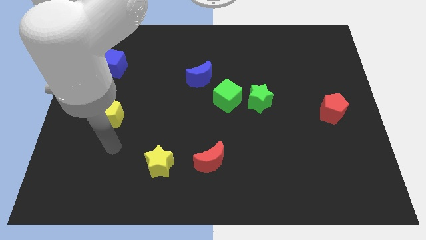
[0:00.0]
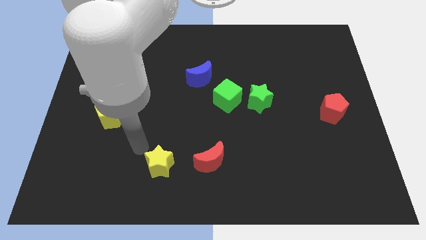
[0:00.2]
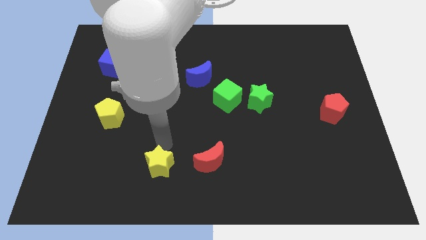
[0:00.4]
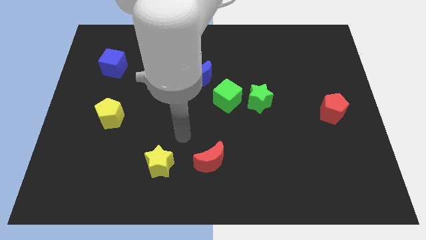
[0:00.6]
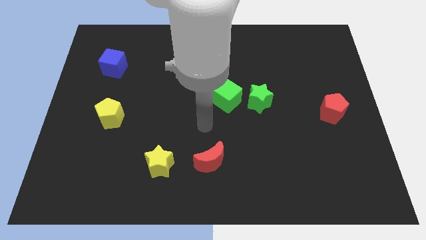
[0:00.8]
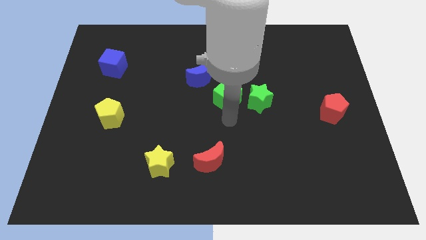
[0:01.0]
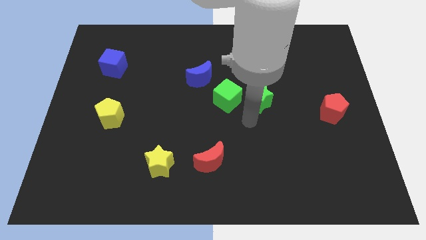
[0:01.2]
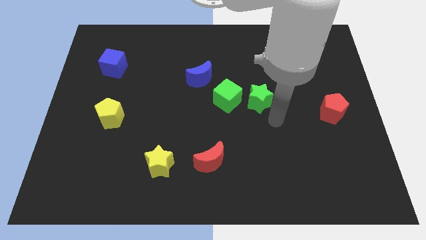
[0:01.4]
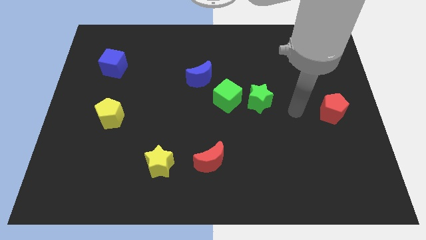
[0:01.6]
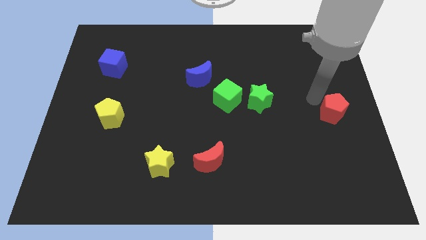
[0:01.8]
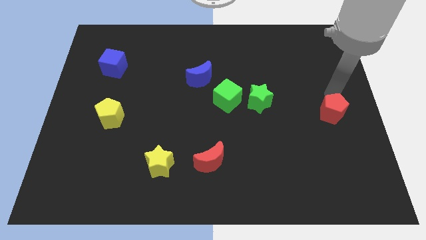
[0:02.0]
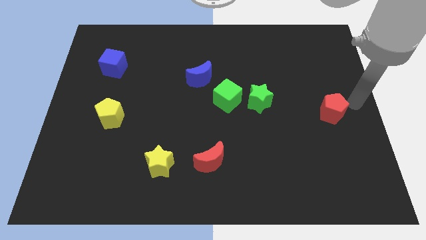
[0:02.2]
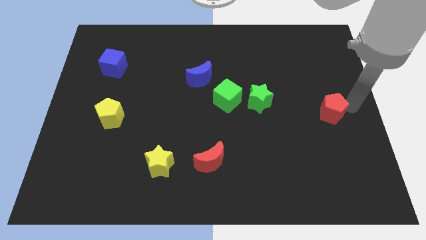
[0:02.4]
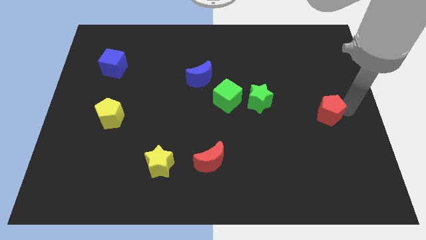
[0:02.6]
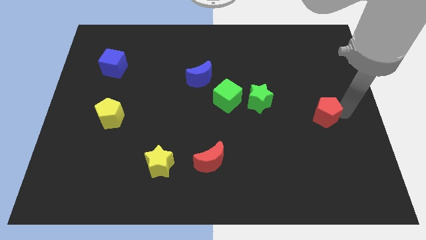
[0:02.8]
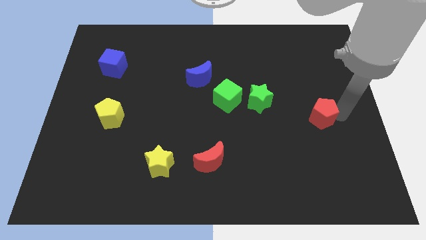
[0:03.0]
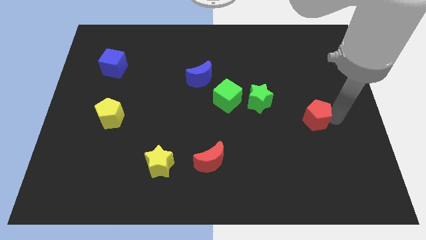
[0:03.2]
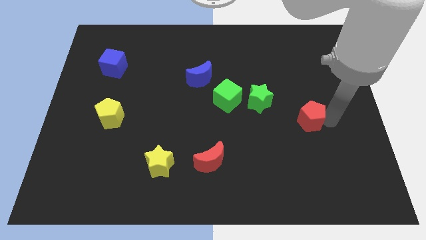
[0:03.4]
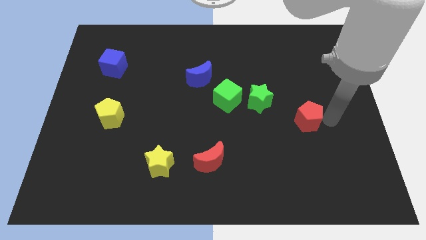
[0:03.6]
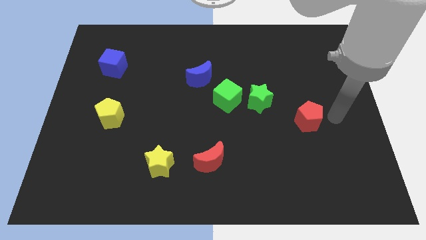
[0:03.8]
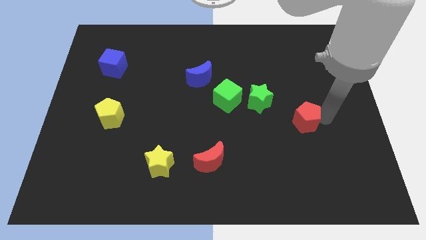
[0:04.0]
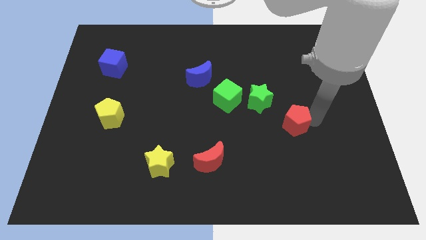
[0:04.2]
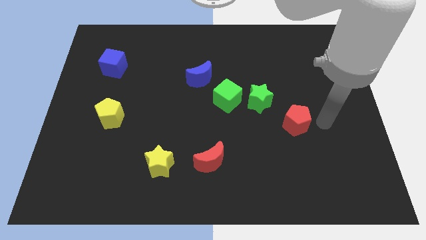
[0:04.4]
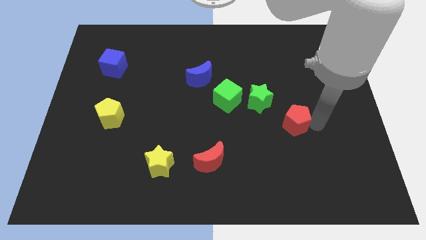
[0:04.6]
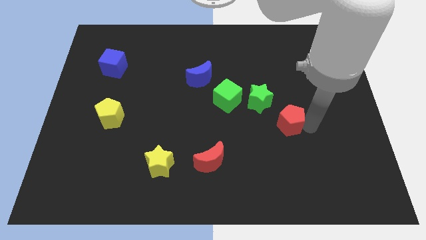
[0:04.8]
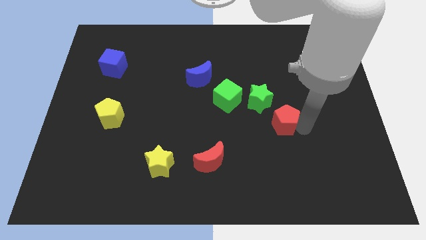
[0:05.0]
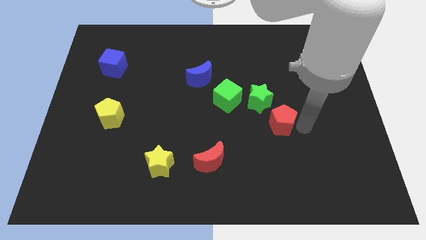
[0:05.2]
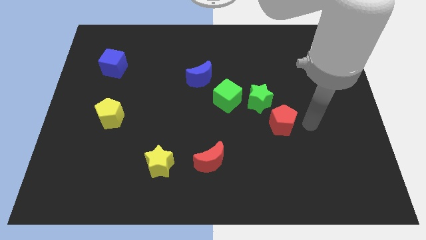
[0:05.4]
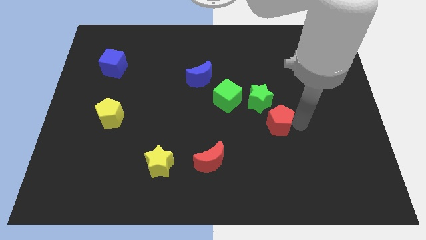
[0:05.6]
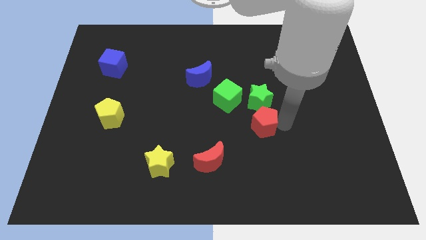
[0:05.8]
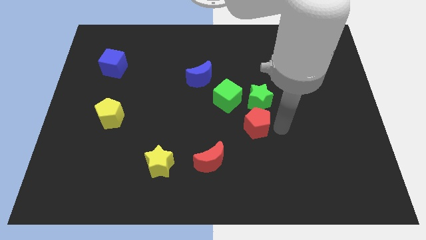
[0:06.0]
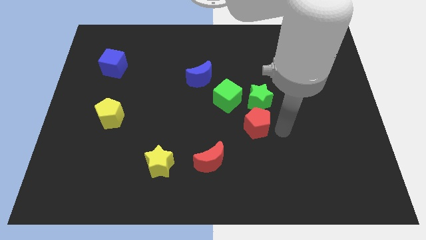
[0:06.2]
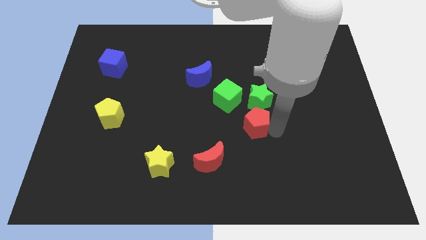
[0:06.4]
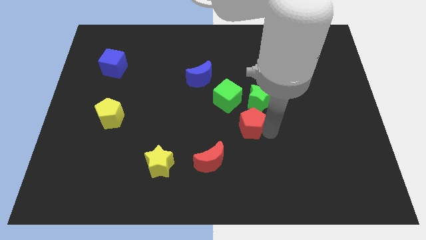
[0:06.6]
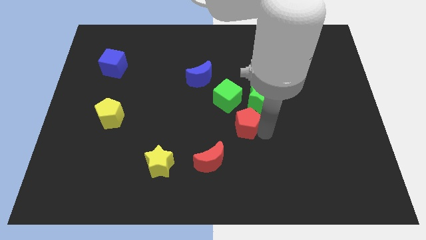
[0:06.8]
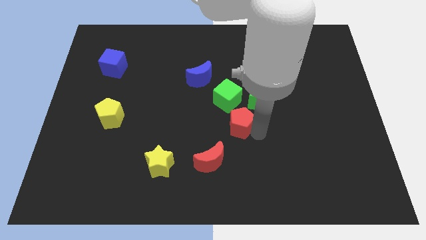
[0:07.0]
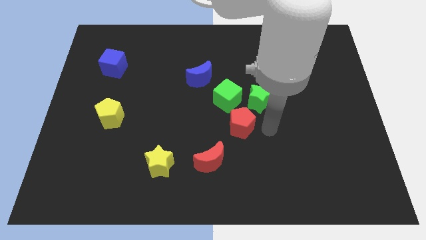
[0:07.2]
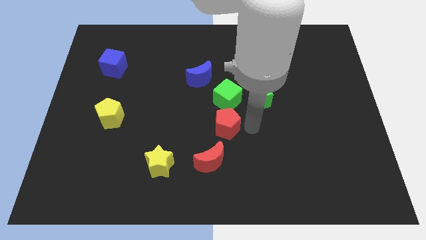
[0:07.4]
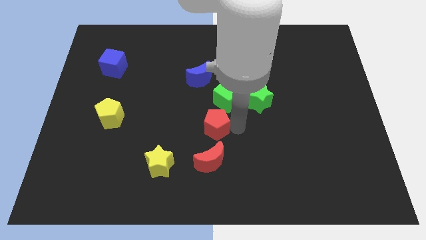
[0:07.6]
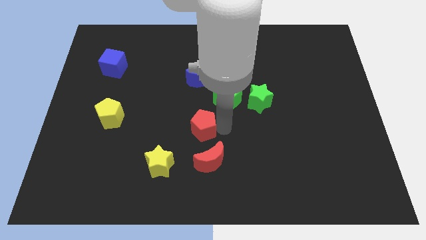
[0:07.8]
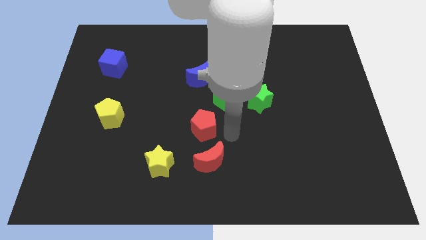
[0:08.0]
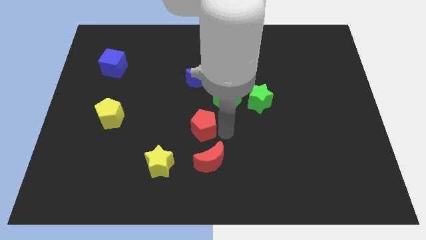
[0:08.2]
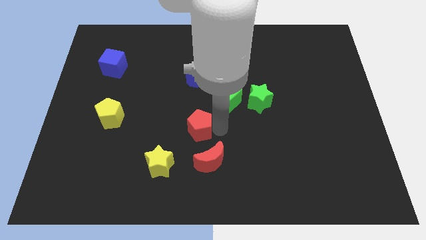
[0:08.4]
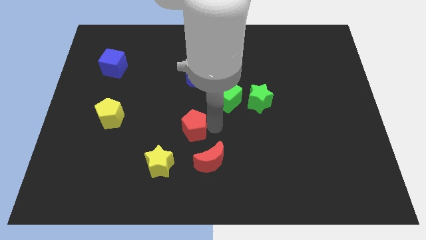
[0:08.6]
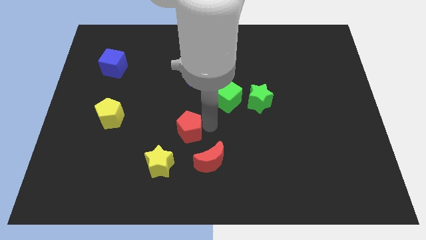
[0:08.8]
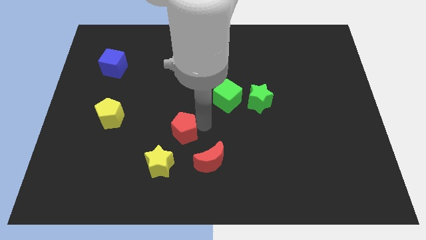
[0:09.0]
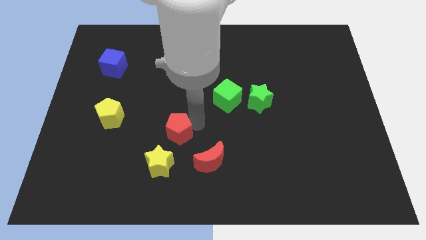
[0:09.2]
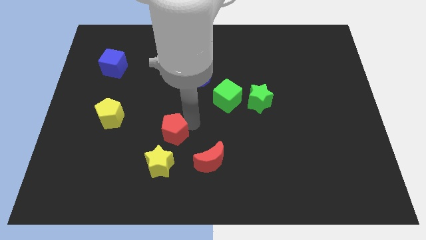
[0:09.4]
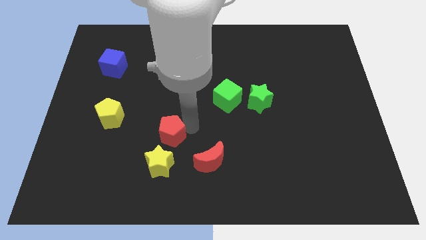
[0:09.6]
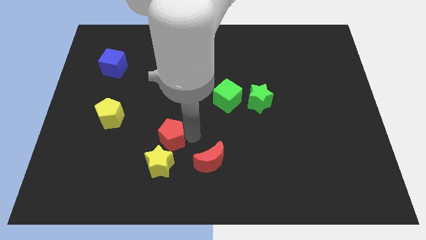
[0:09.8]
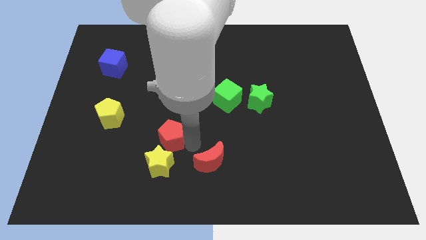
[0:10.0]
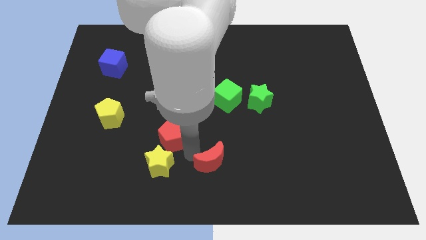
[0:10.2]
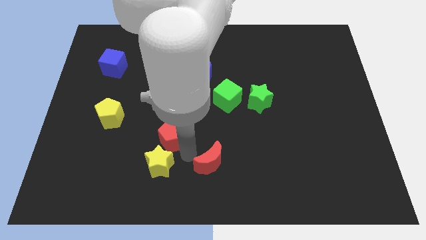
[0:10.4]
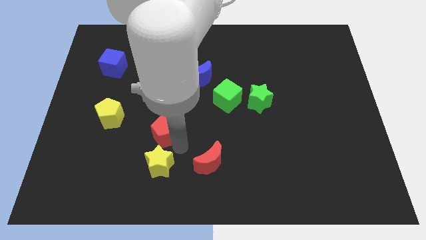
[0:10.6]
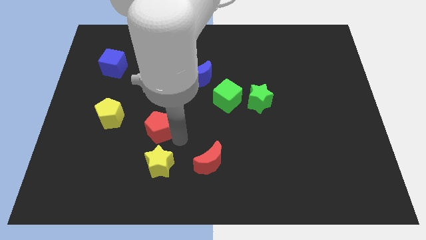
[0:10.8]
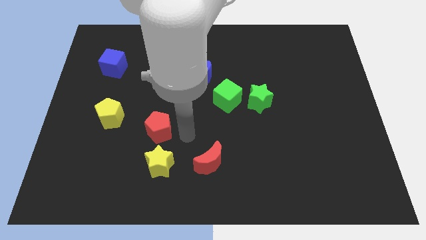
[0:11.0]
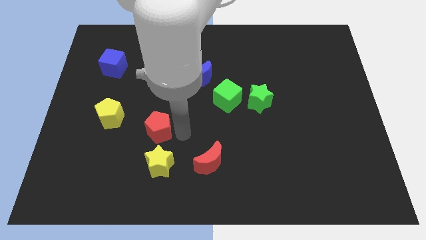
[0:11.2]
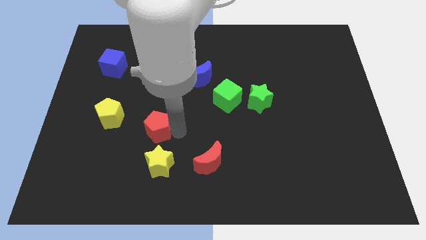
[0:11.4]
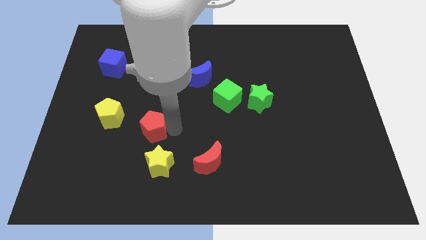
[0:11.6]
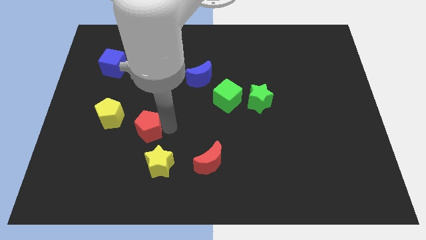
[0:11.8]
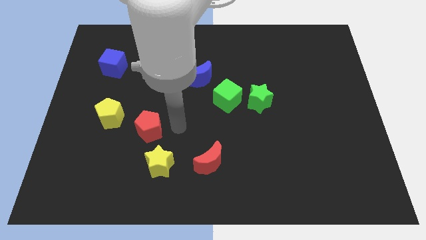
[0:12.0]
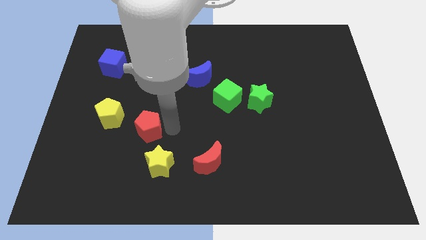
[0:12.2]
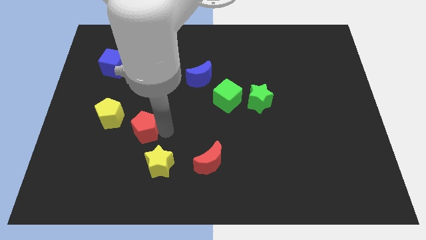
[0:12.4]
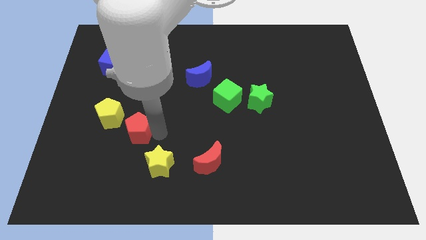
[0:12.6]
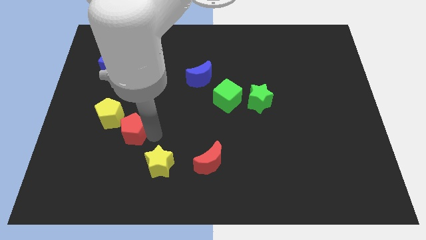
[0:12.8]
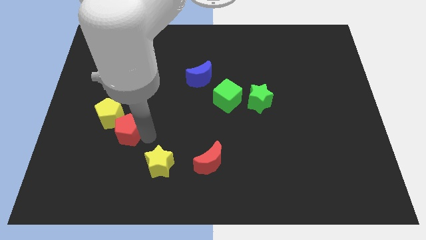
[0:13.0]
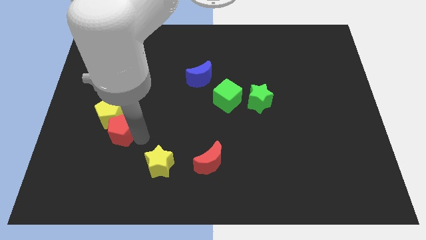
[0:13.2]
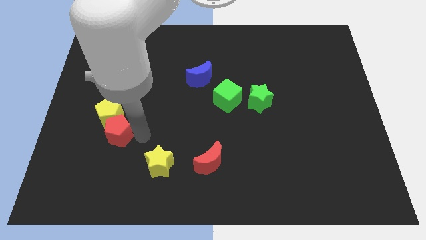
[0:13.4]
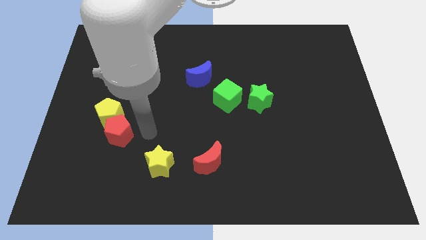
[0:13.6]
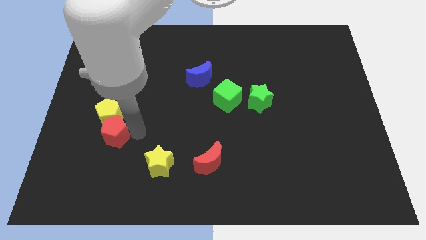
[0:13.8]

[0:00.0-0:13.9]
put the red pentagon to the bottom left of the yellow pentagon
